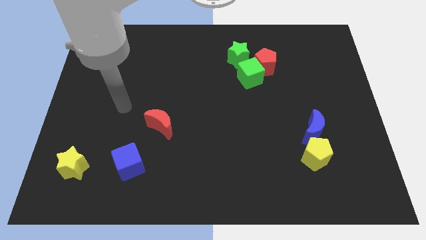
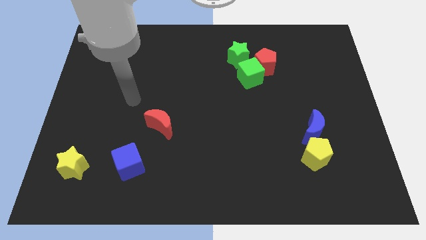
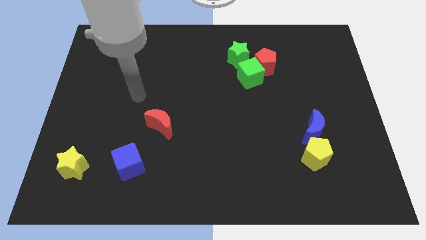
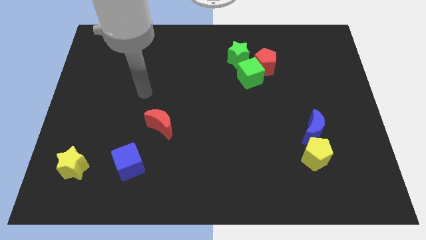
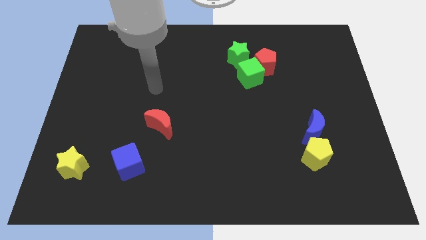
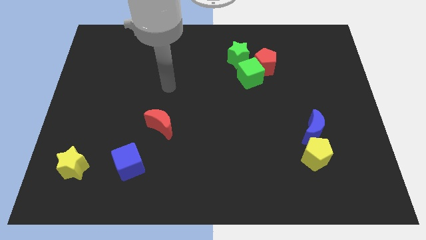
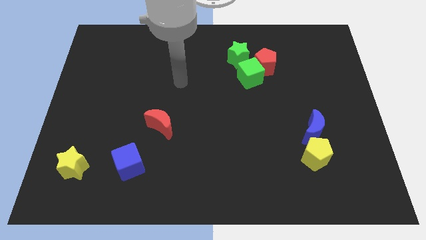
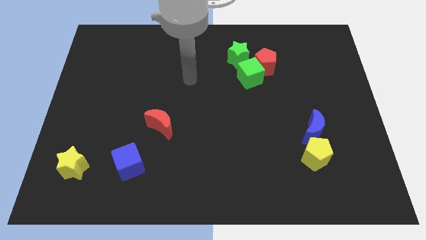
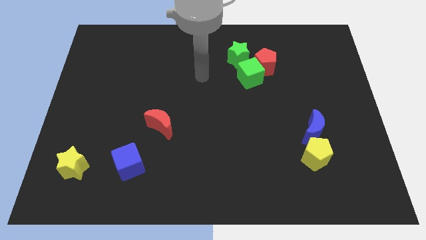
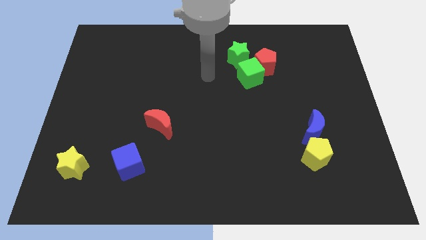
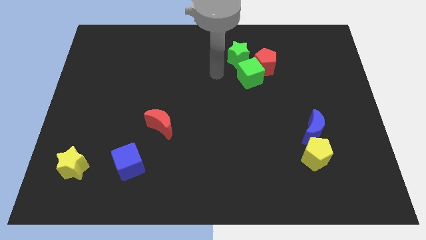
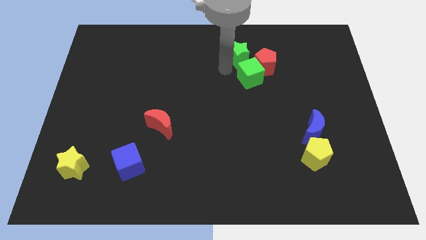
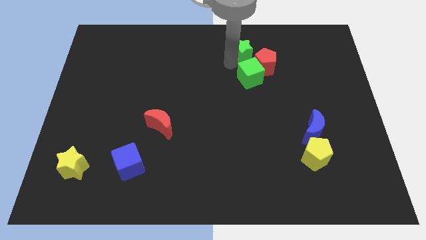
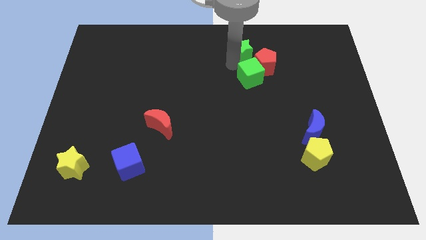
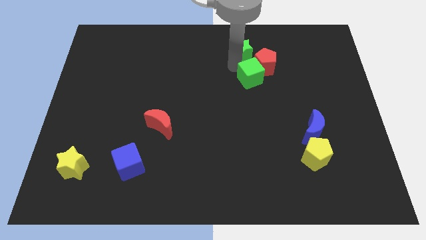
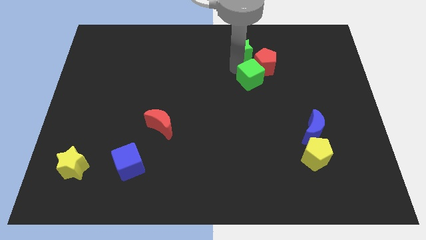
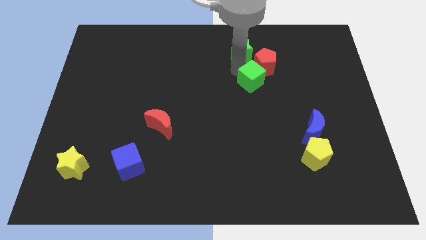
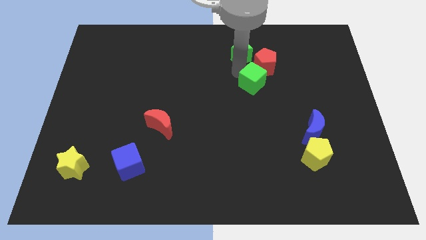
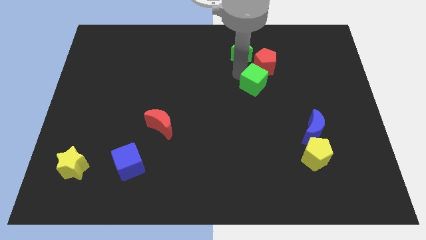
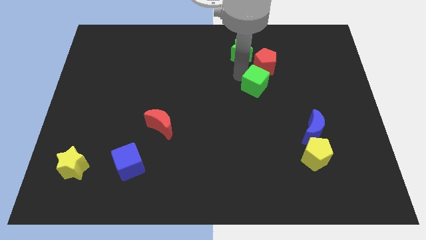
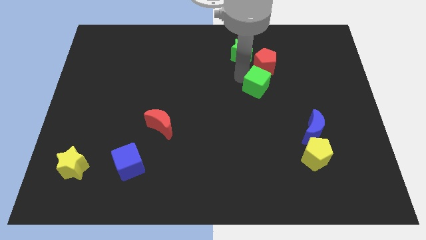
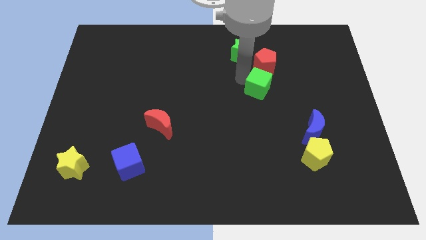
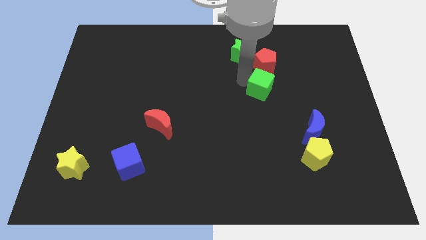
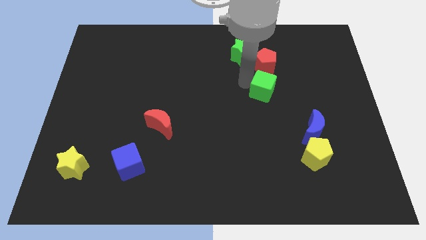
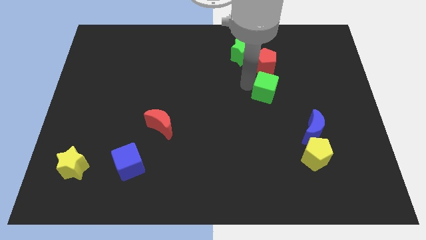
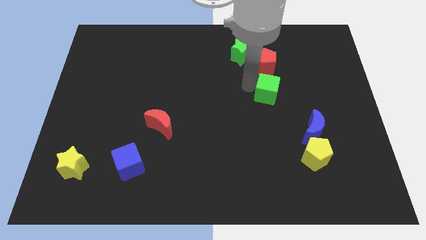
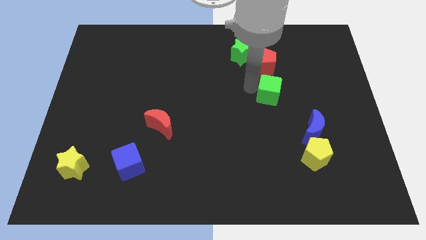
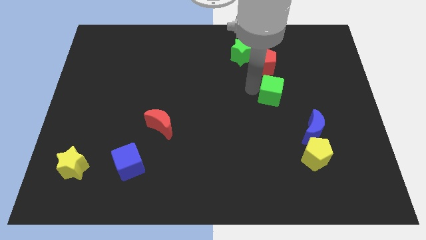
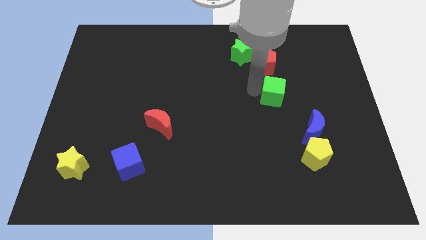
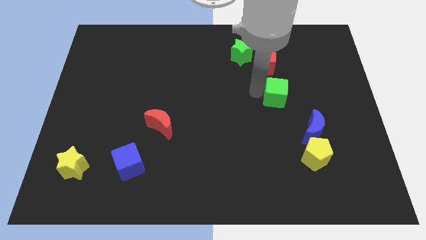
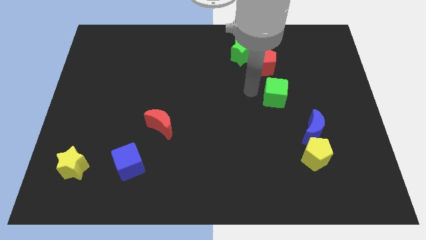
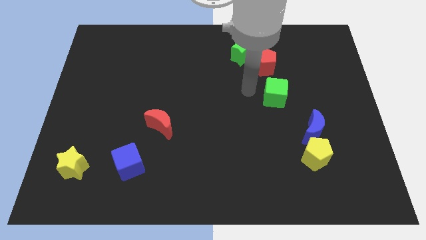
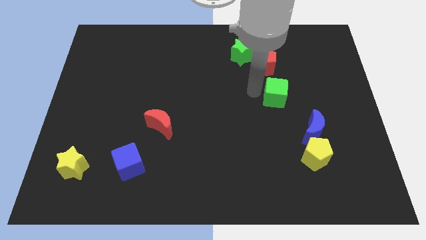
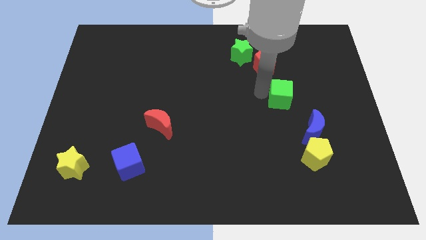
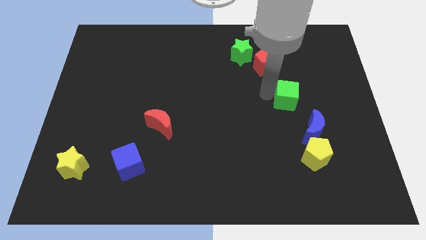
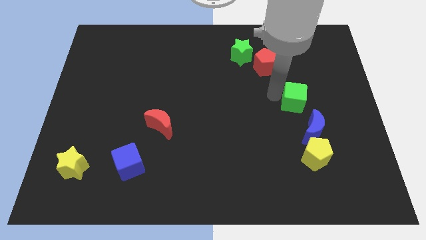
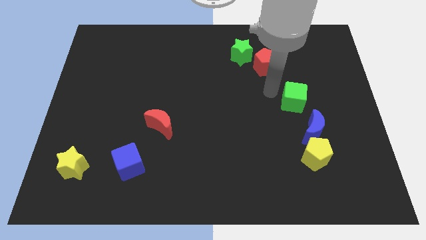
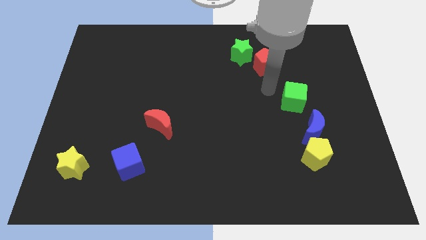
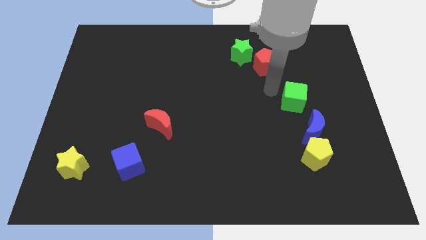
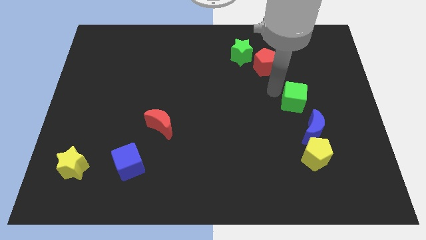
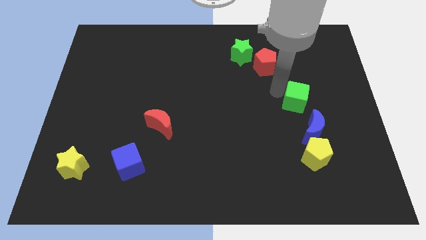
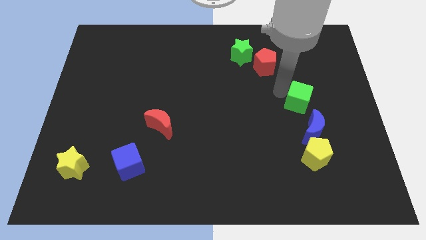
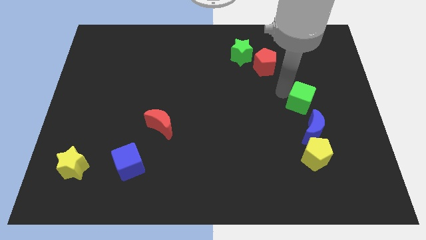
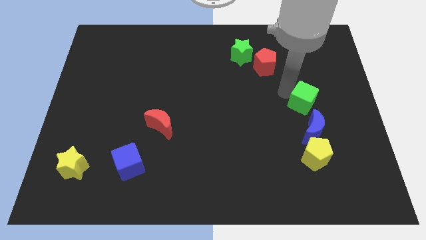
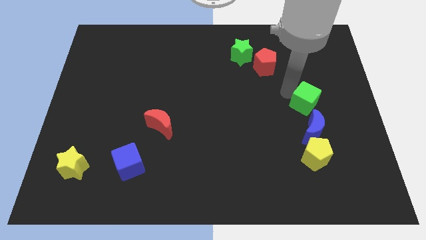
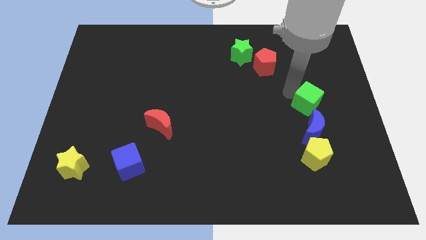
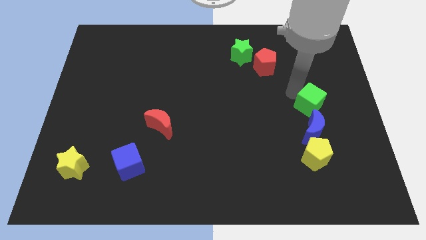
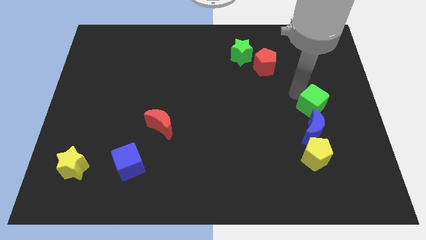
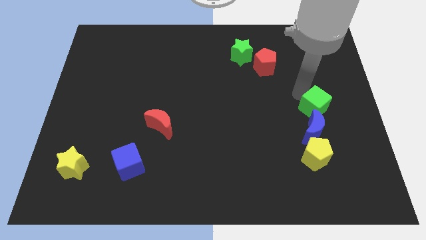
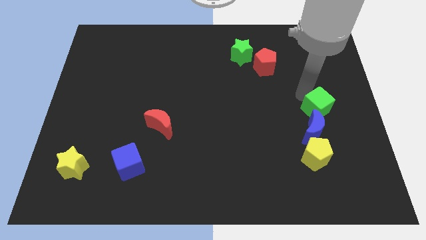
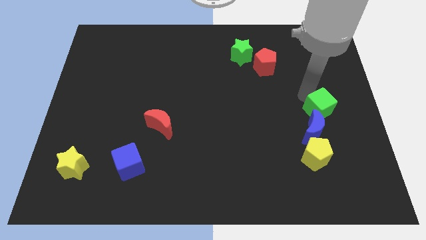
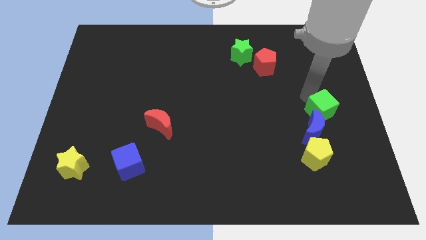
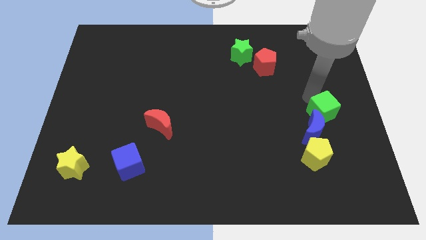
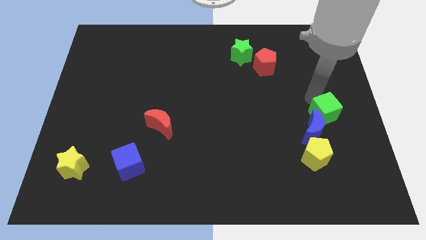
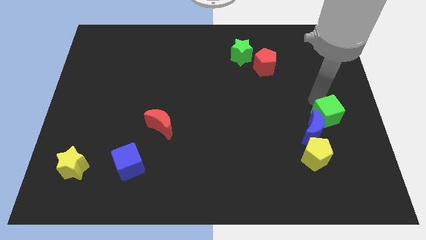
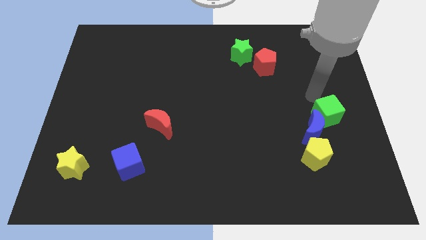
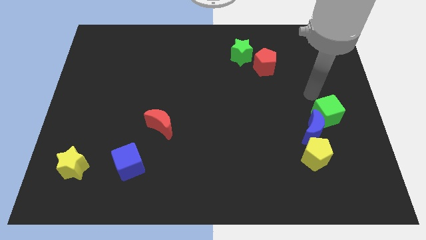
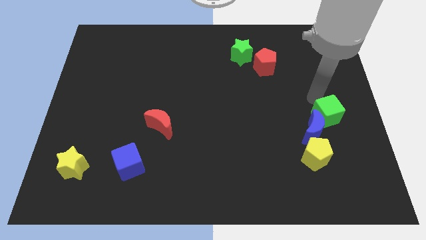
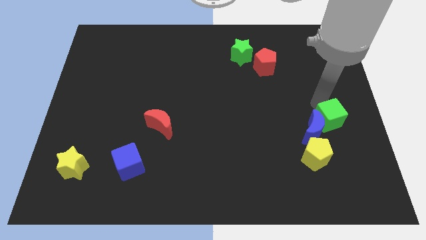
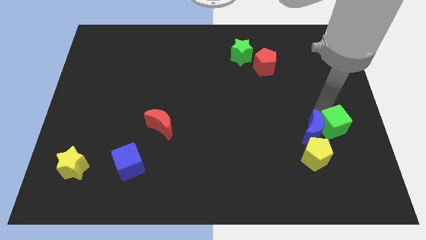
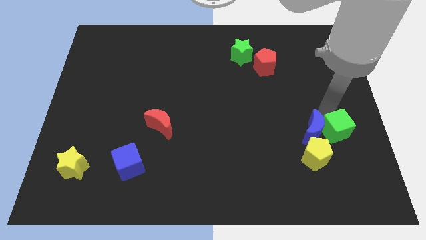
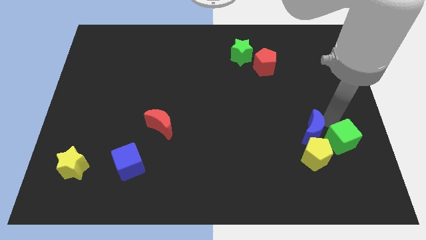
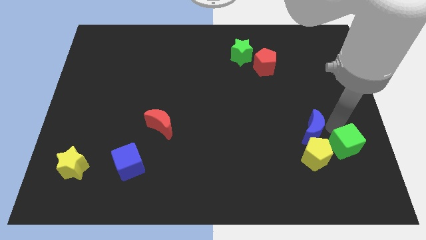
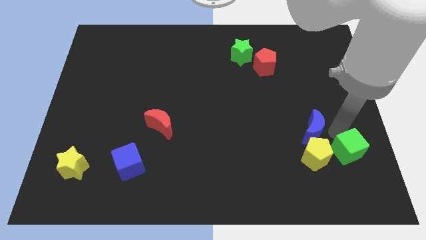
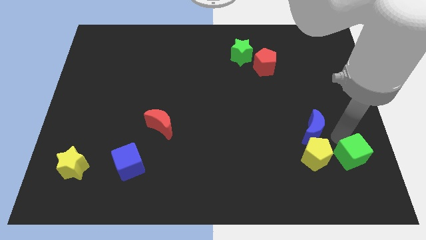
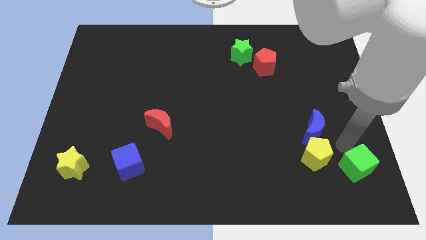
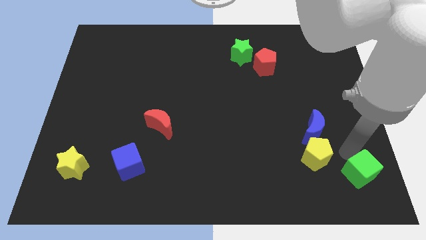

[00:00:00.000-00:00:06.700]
push the green cube to the bottom right
